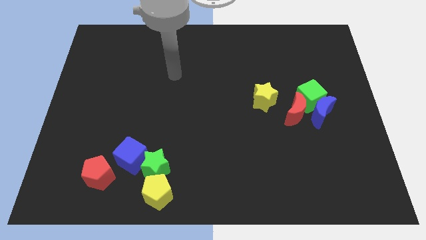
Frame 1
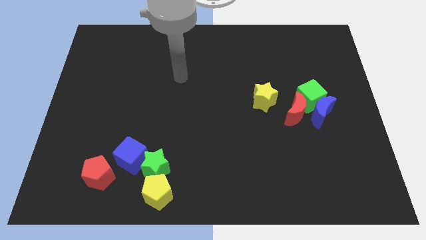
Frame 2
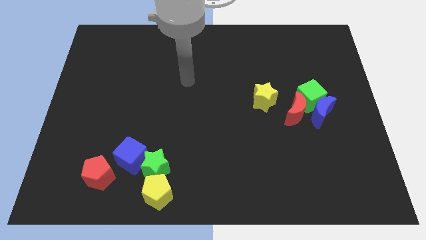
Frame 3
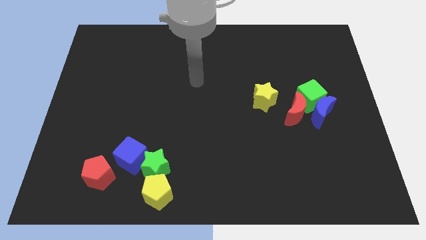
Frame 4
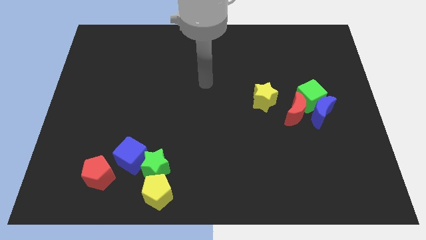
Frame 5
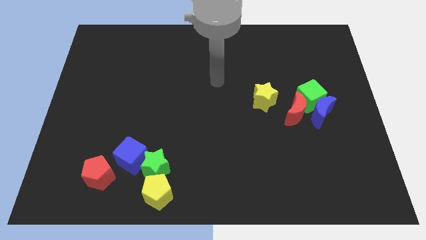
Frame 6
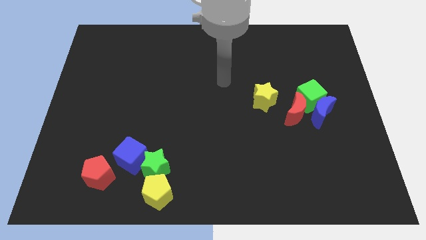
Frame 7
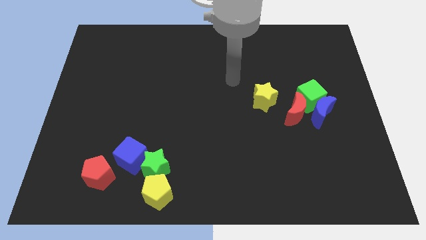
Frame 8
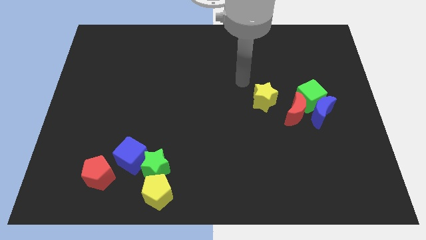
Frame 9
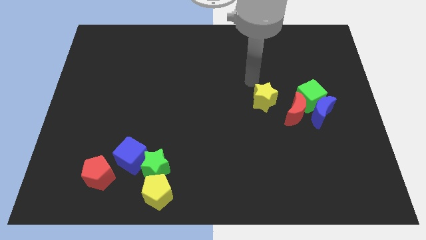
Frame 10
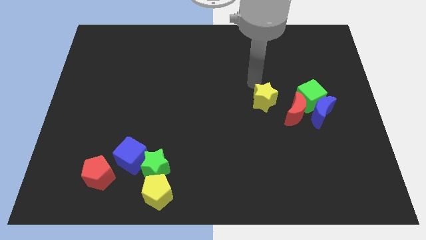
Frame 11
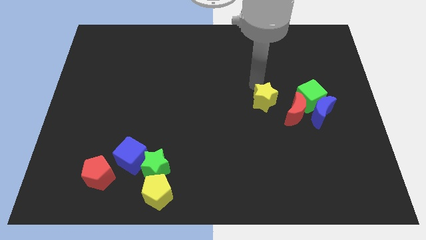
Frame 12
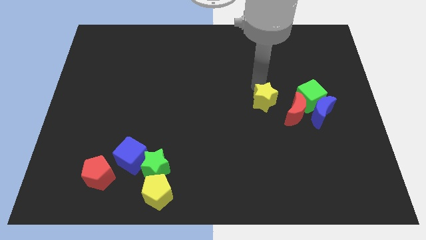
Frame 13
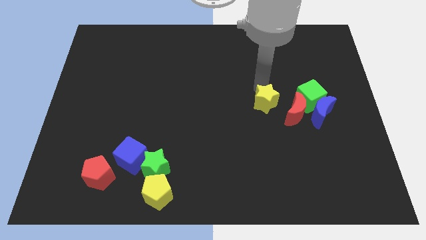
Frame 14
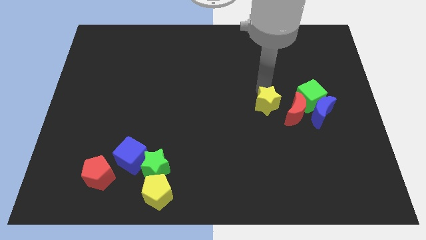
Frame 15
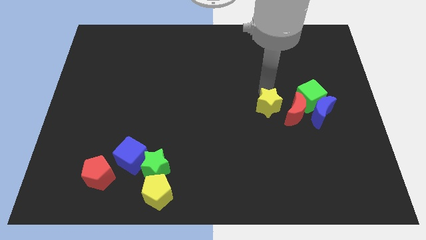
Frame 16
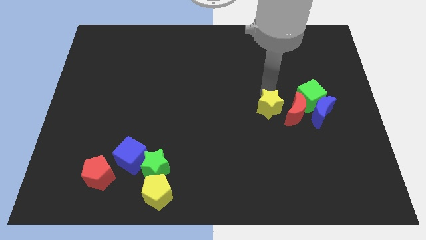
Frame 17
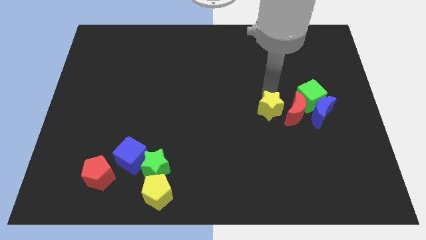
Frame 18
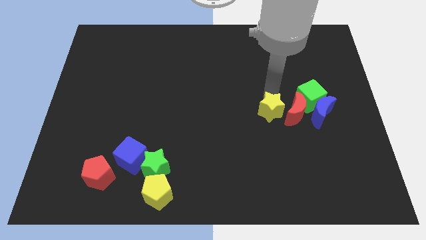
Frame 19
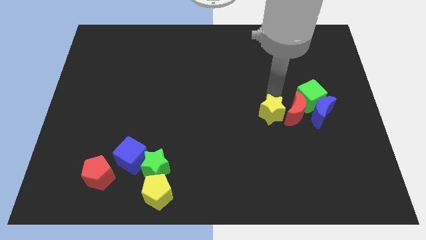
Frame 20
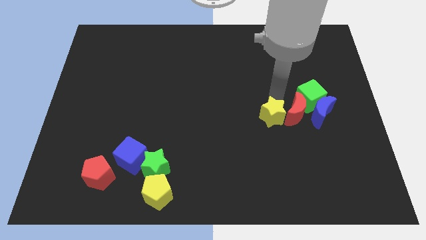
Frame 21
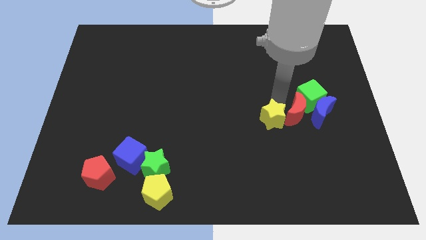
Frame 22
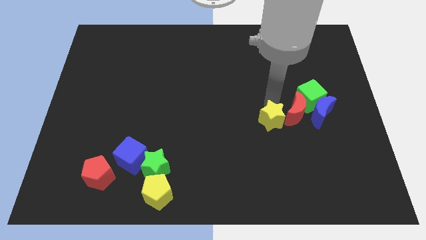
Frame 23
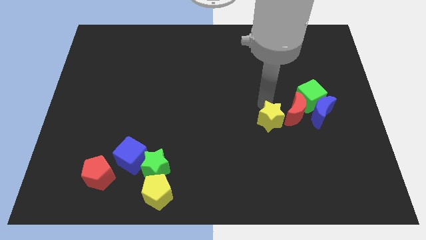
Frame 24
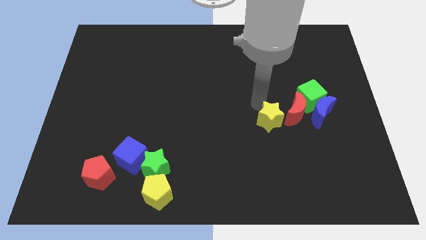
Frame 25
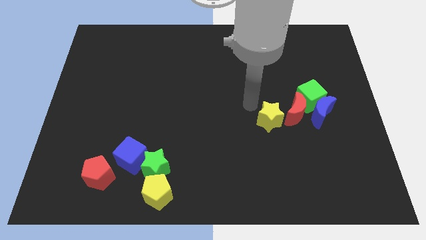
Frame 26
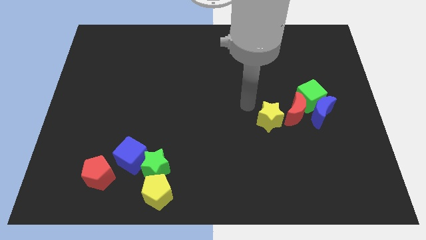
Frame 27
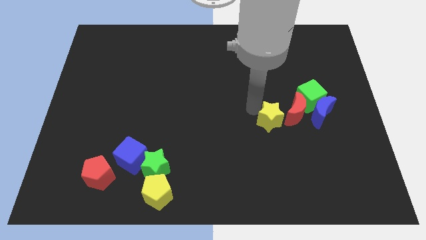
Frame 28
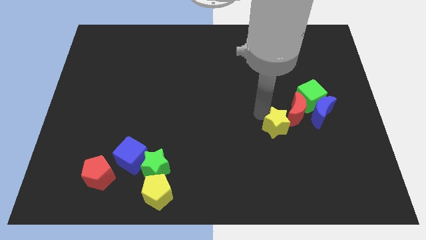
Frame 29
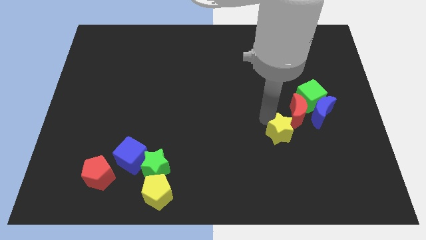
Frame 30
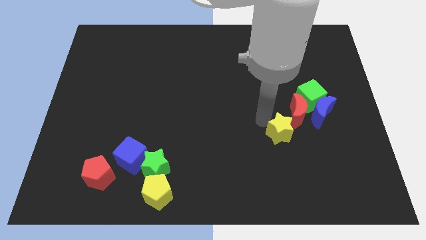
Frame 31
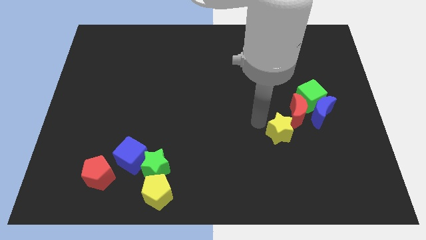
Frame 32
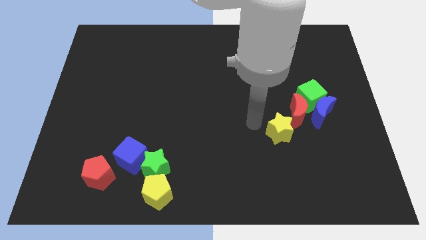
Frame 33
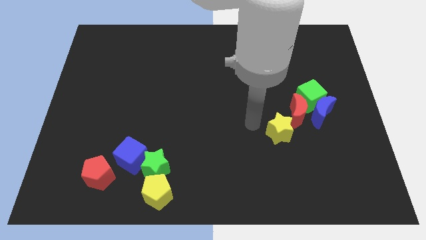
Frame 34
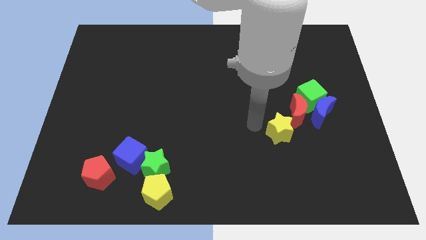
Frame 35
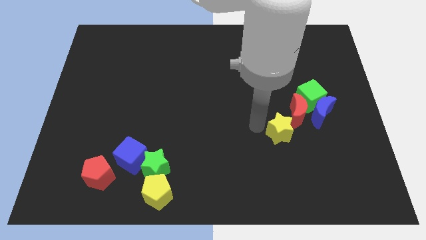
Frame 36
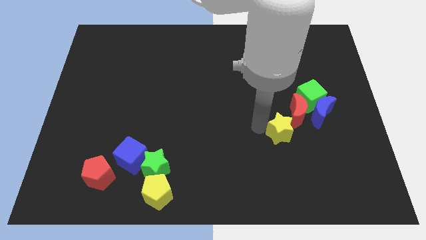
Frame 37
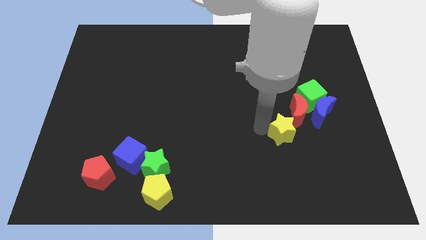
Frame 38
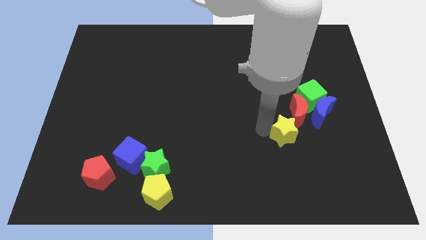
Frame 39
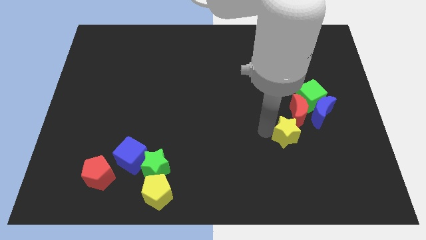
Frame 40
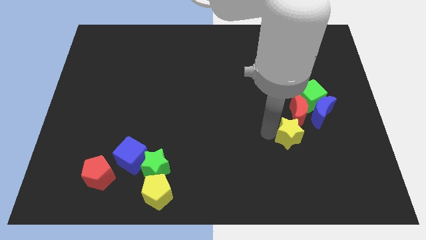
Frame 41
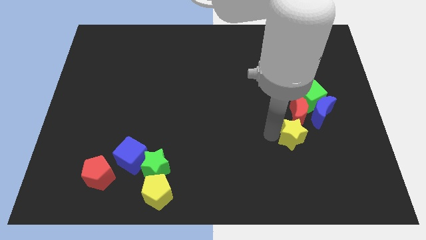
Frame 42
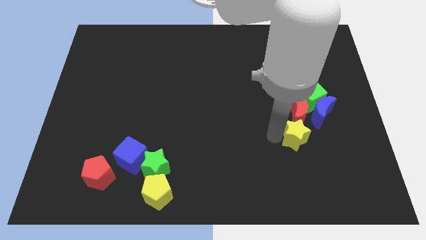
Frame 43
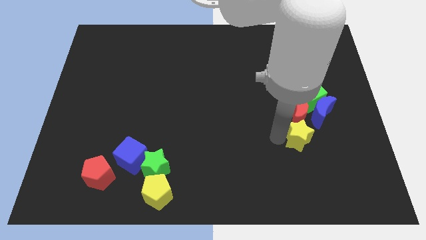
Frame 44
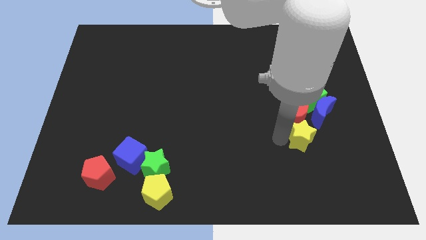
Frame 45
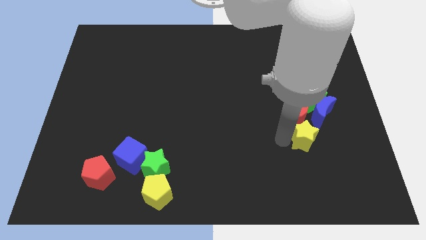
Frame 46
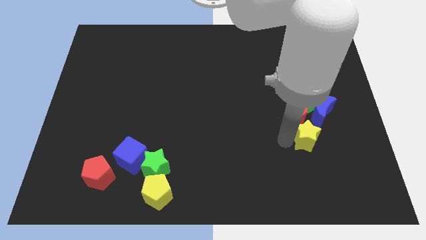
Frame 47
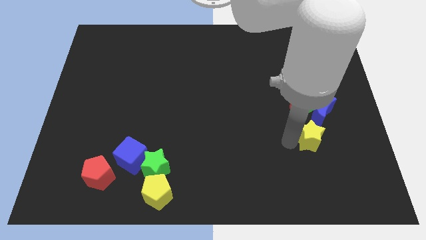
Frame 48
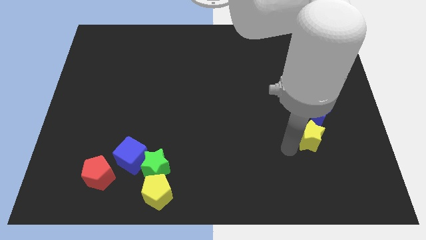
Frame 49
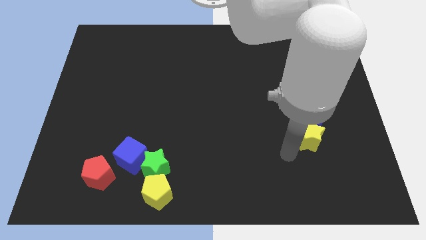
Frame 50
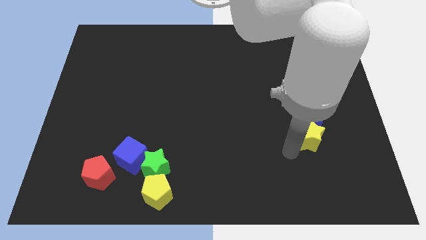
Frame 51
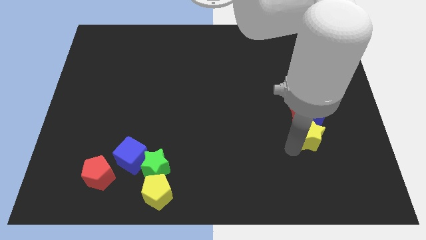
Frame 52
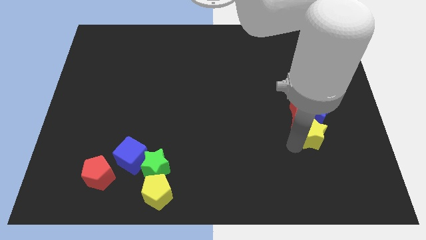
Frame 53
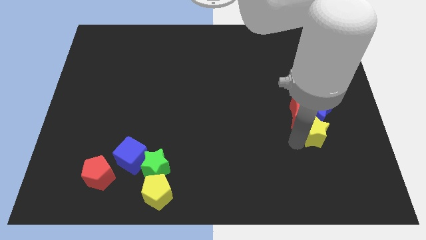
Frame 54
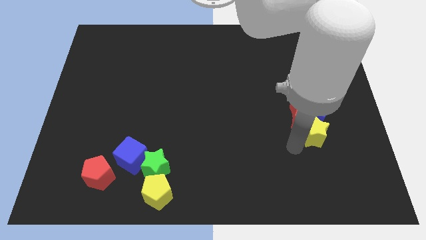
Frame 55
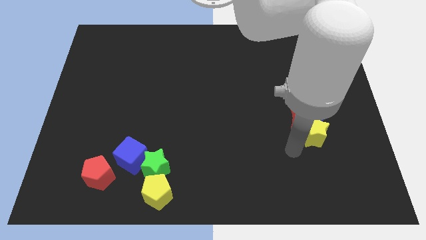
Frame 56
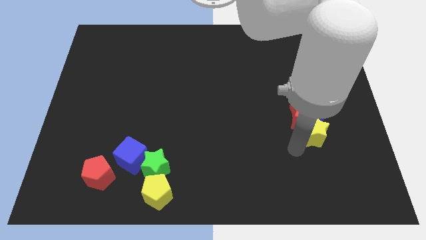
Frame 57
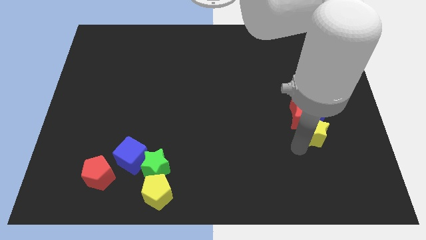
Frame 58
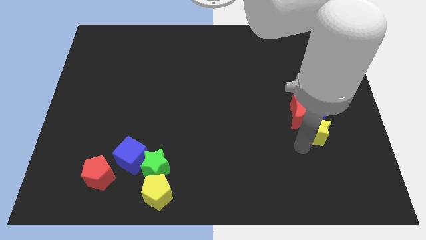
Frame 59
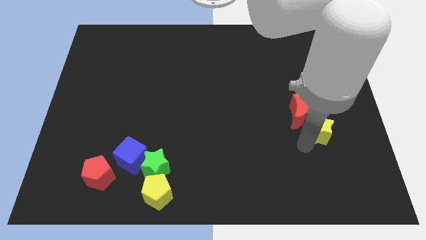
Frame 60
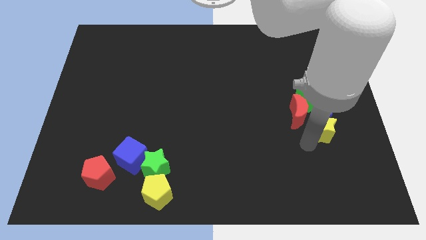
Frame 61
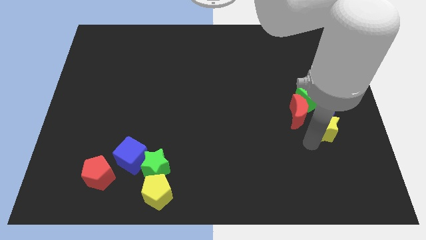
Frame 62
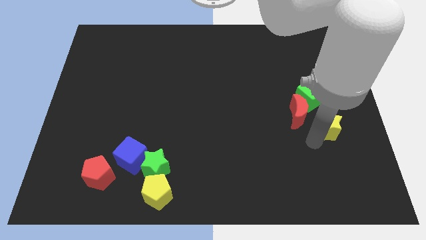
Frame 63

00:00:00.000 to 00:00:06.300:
slide the yellow star diagonally down and to the right of the green cube
